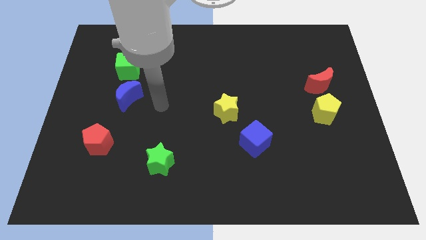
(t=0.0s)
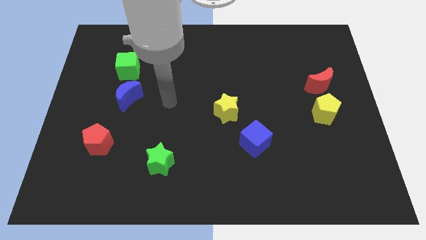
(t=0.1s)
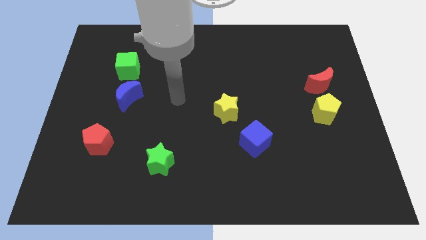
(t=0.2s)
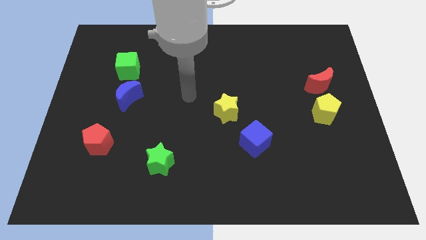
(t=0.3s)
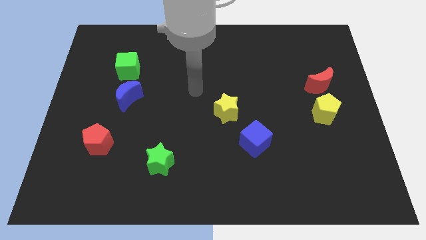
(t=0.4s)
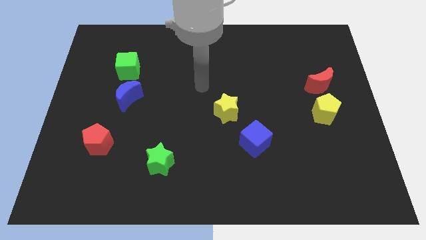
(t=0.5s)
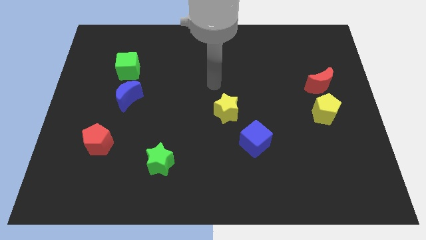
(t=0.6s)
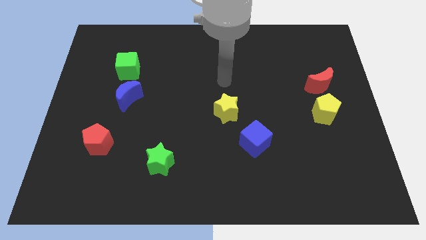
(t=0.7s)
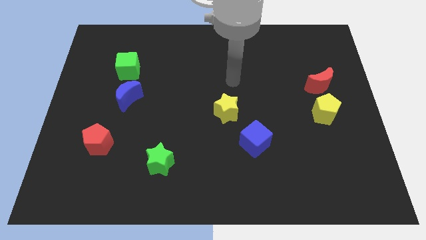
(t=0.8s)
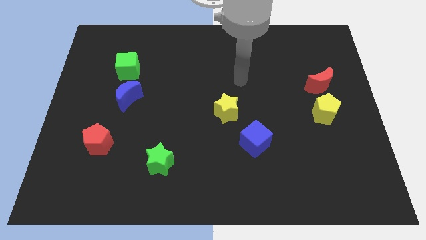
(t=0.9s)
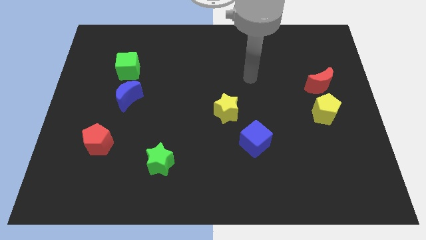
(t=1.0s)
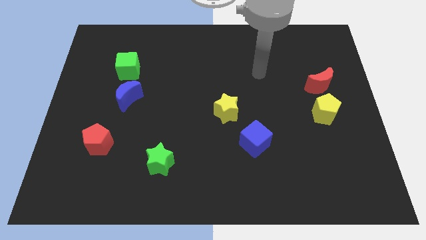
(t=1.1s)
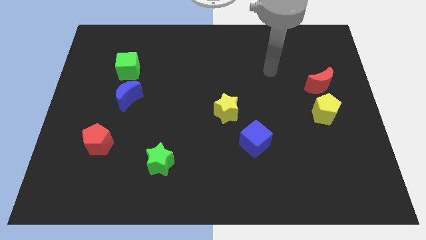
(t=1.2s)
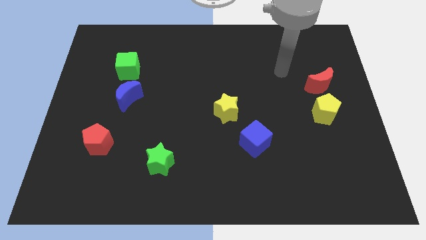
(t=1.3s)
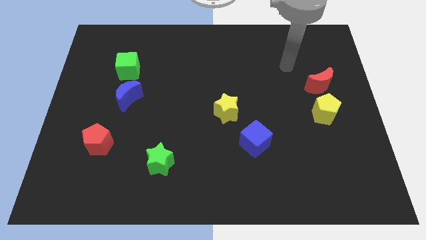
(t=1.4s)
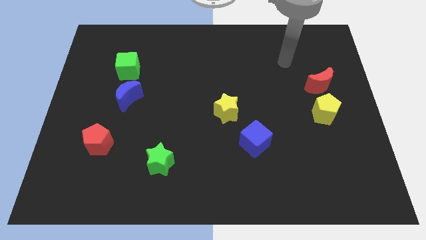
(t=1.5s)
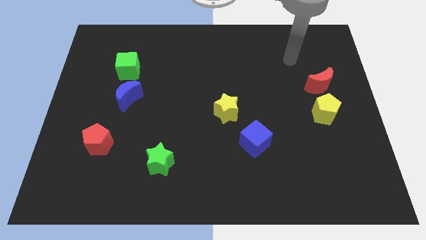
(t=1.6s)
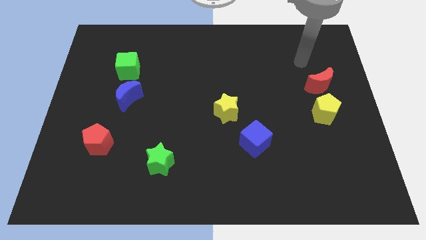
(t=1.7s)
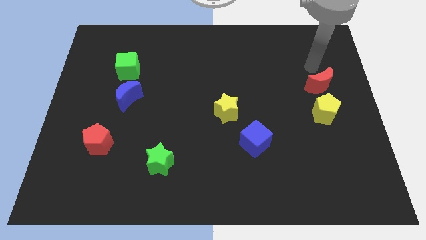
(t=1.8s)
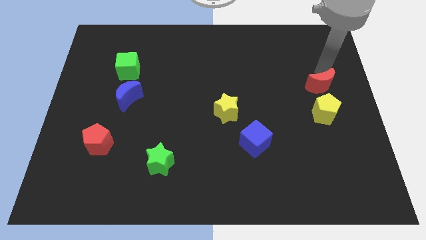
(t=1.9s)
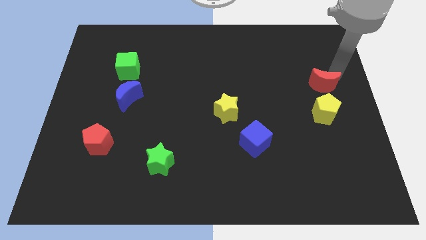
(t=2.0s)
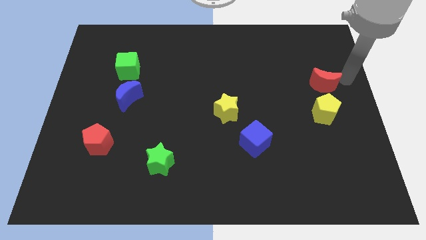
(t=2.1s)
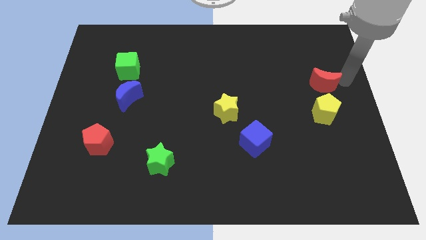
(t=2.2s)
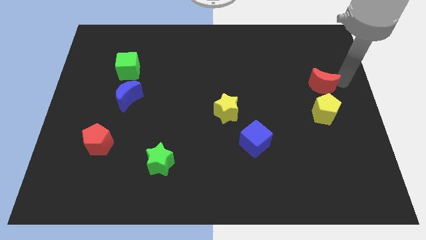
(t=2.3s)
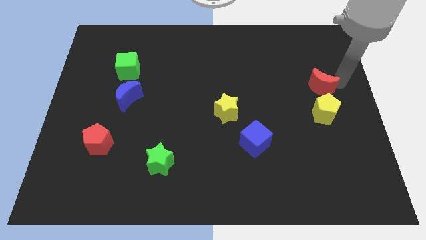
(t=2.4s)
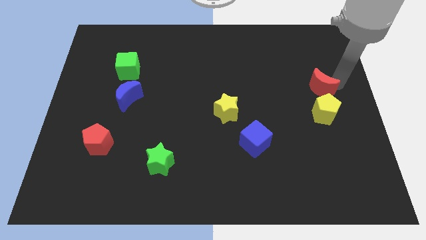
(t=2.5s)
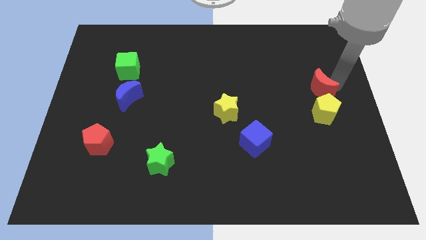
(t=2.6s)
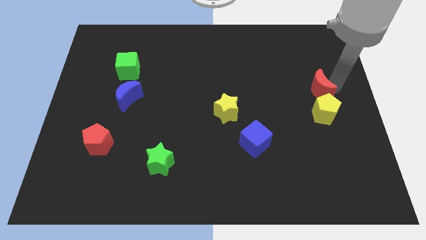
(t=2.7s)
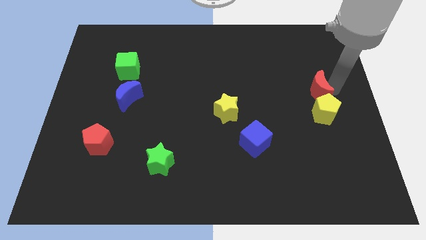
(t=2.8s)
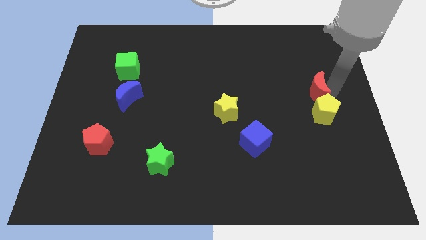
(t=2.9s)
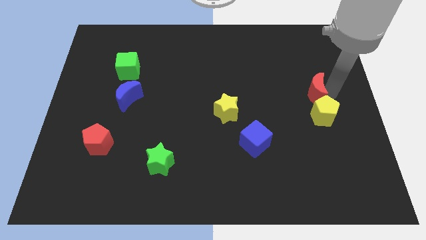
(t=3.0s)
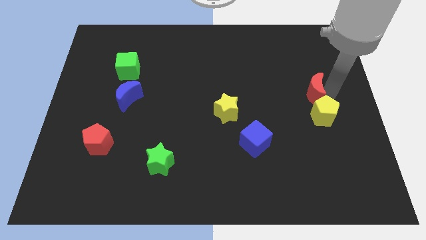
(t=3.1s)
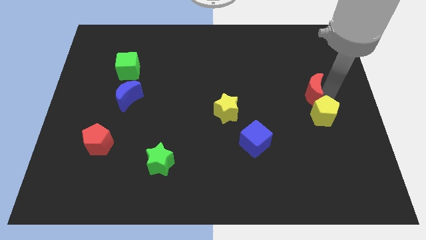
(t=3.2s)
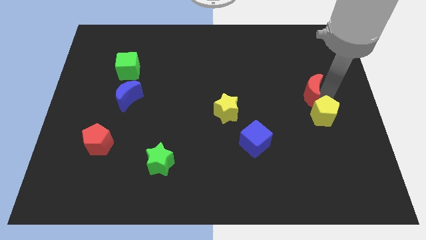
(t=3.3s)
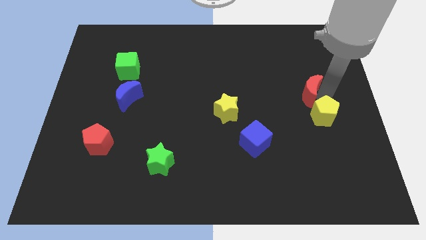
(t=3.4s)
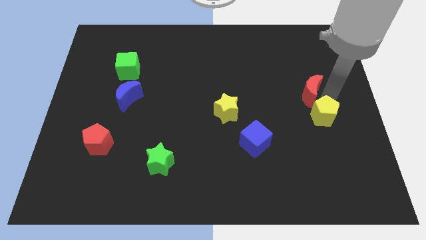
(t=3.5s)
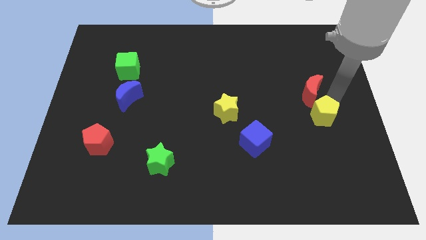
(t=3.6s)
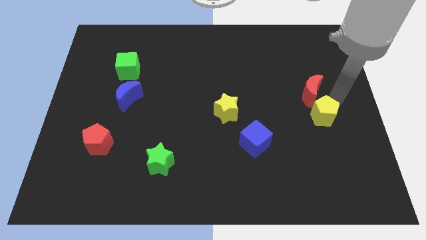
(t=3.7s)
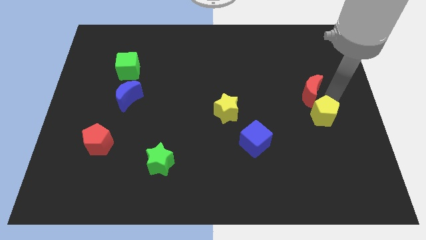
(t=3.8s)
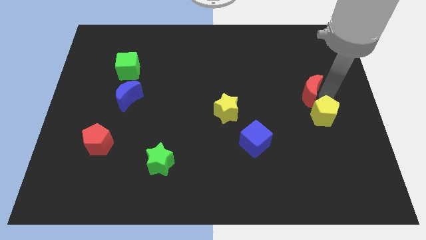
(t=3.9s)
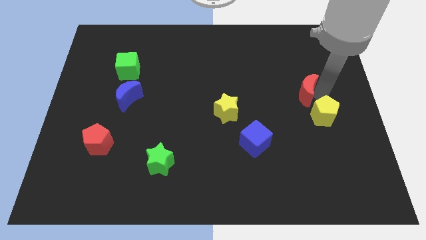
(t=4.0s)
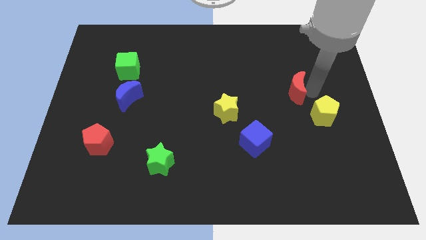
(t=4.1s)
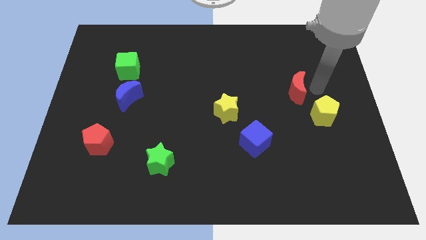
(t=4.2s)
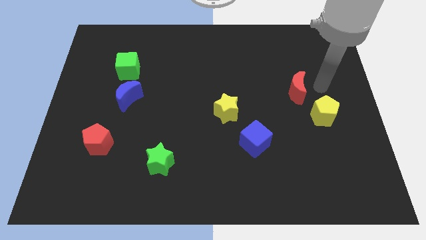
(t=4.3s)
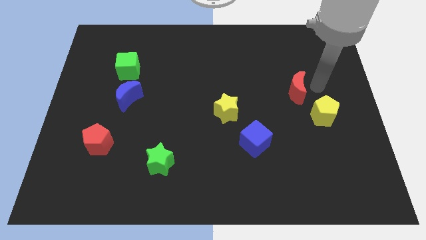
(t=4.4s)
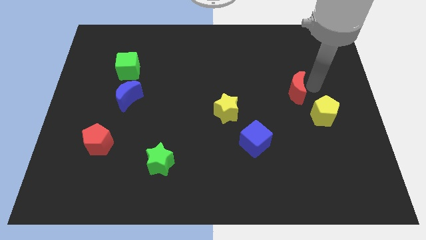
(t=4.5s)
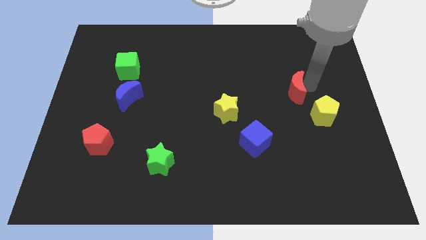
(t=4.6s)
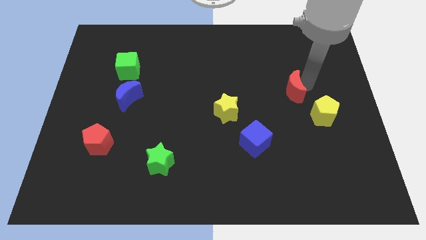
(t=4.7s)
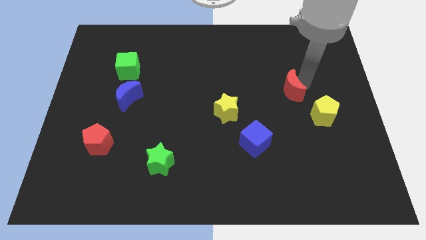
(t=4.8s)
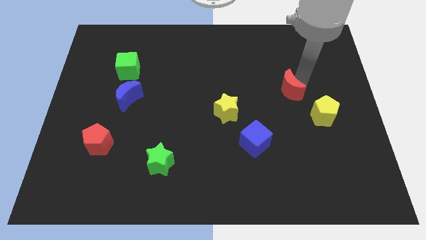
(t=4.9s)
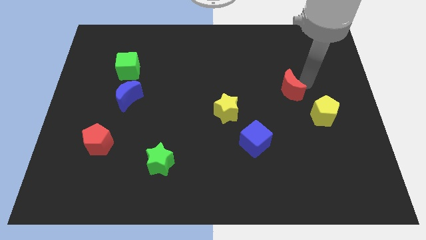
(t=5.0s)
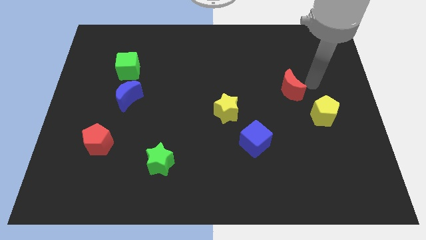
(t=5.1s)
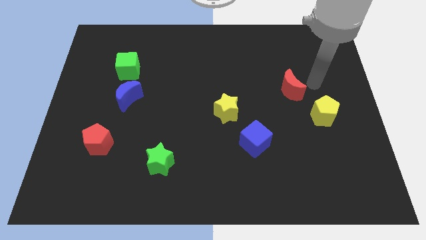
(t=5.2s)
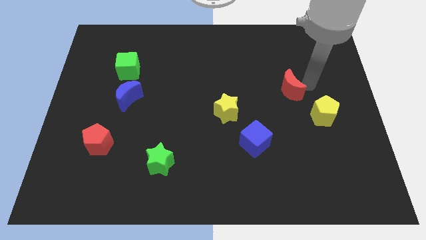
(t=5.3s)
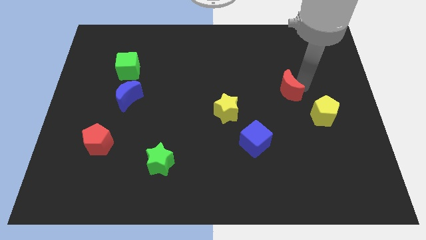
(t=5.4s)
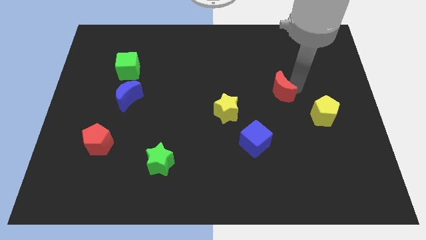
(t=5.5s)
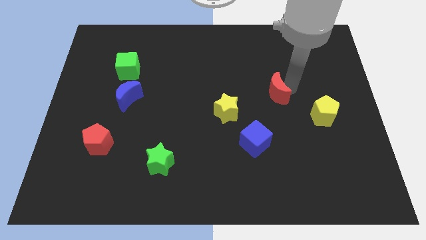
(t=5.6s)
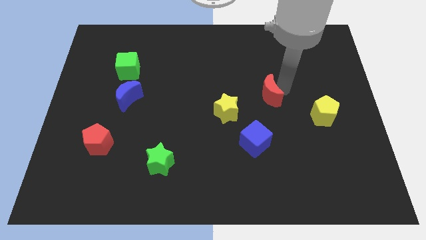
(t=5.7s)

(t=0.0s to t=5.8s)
push the red moon to the top side of the blue cube

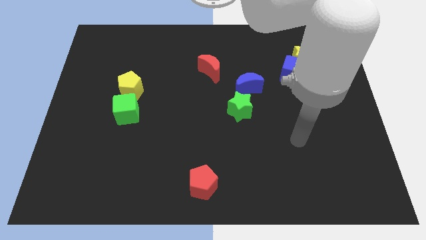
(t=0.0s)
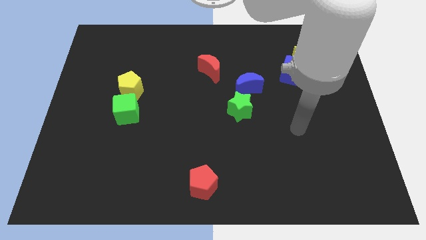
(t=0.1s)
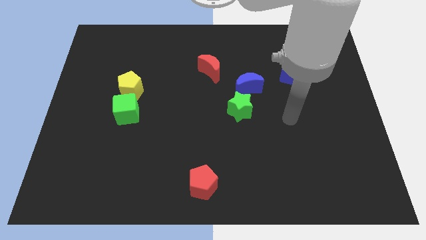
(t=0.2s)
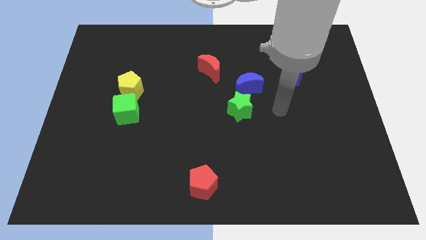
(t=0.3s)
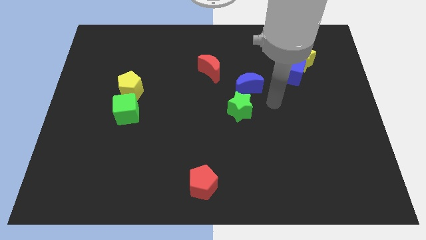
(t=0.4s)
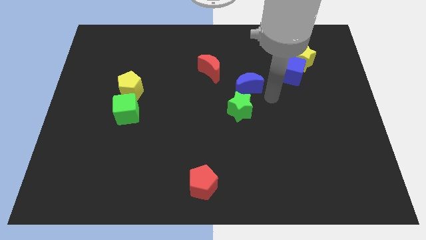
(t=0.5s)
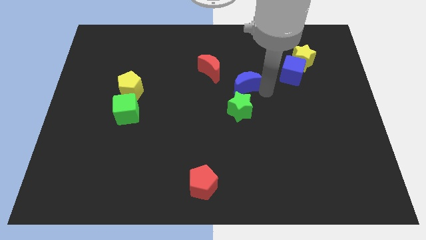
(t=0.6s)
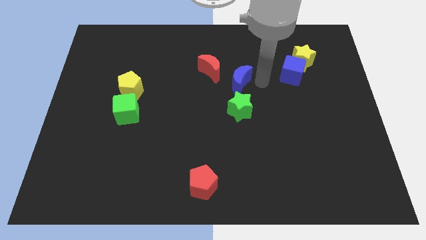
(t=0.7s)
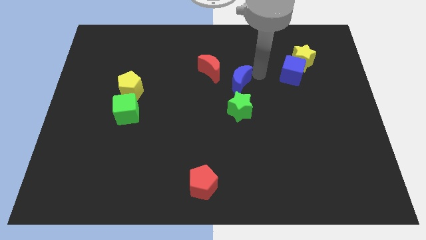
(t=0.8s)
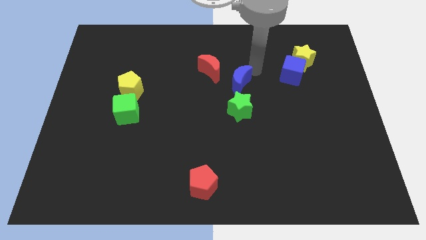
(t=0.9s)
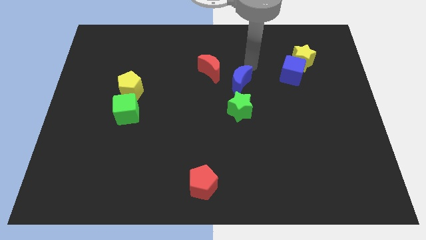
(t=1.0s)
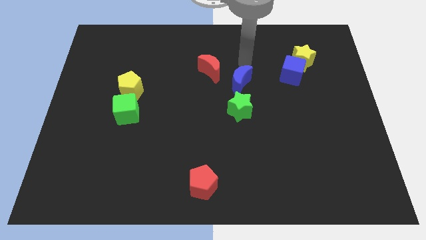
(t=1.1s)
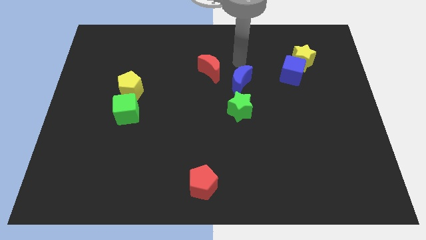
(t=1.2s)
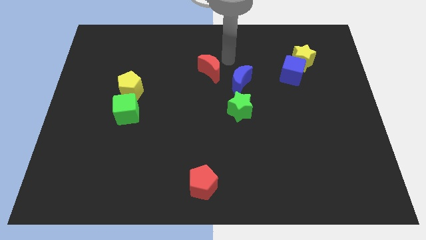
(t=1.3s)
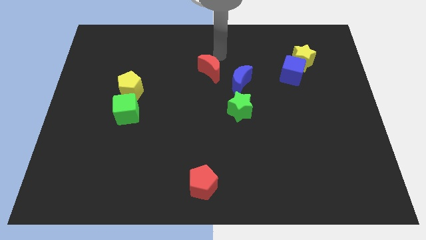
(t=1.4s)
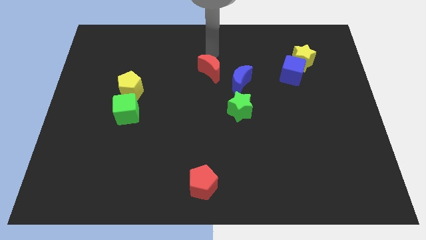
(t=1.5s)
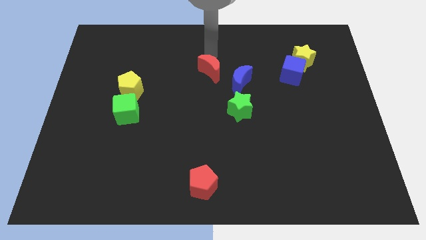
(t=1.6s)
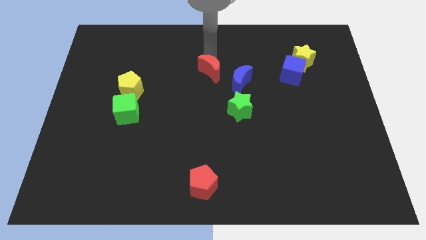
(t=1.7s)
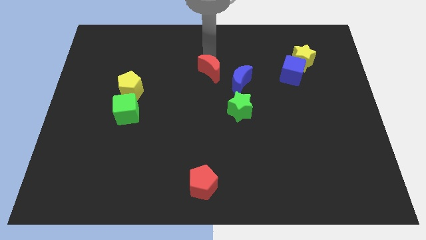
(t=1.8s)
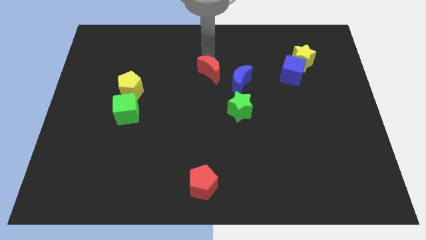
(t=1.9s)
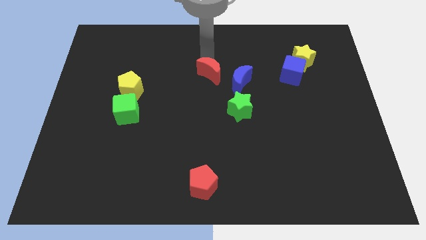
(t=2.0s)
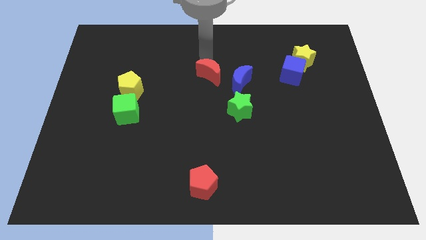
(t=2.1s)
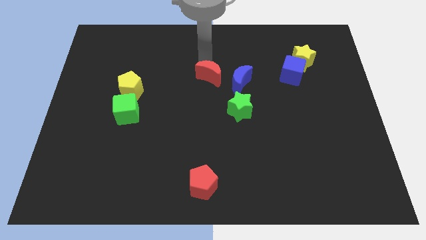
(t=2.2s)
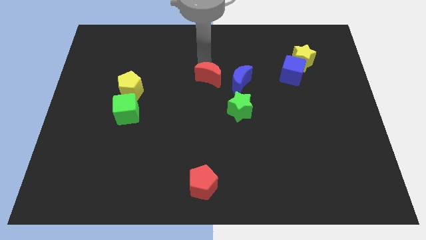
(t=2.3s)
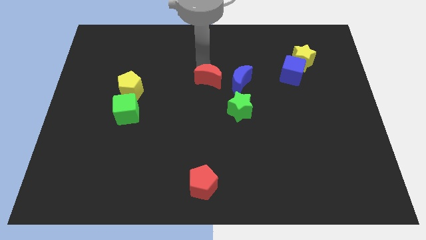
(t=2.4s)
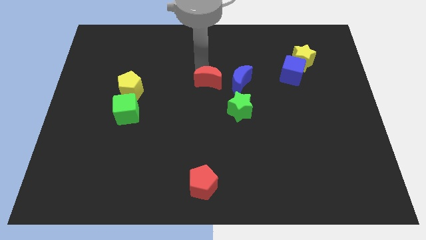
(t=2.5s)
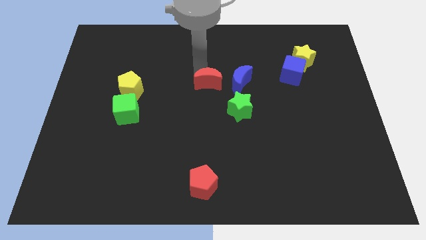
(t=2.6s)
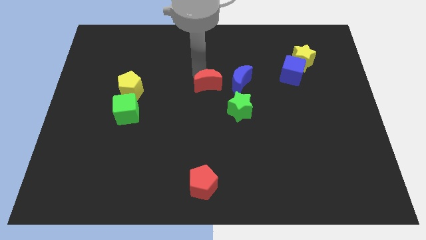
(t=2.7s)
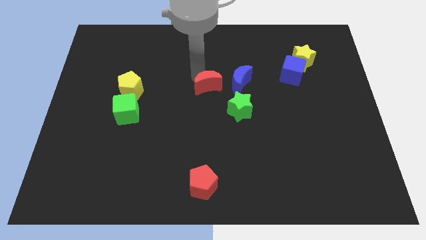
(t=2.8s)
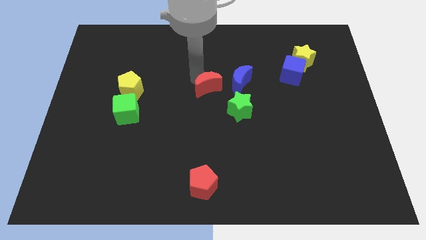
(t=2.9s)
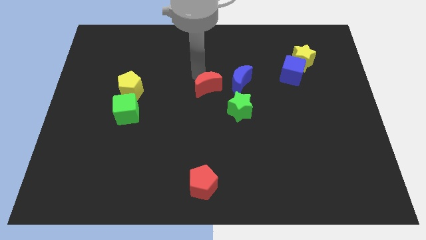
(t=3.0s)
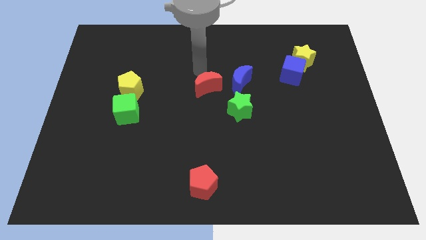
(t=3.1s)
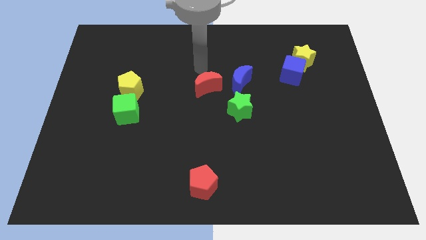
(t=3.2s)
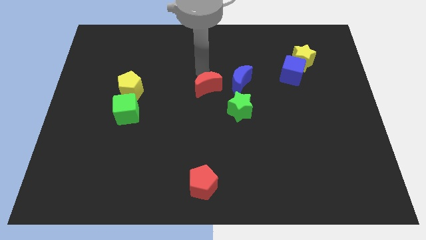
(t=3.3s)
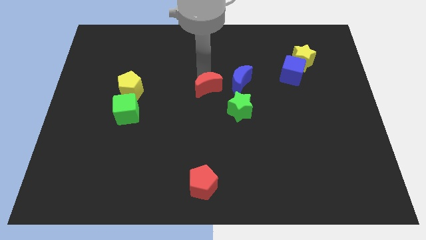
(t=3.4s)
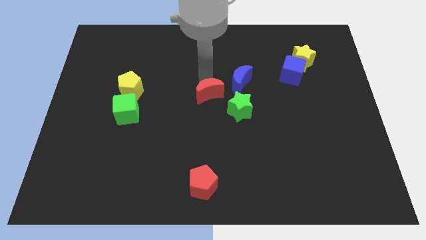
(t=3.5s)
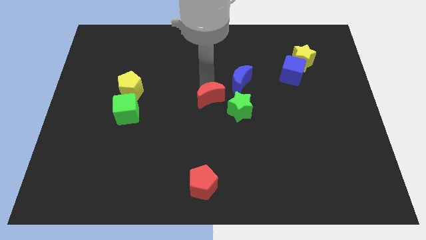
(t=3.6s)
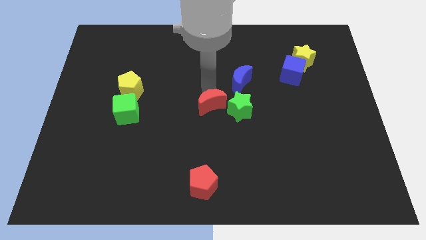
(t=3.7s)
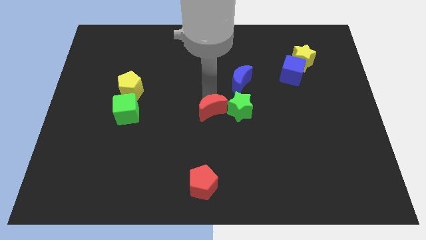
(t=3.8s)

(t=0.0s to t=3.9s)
move the red moon diagonally down and to the left of the green star
